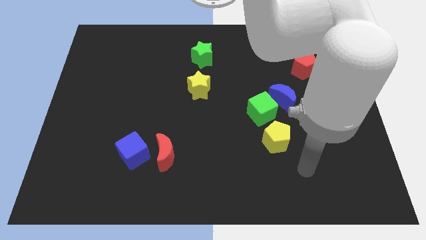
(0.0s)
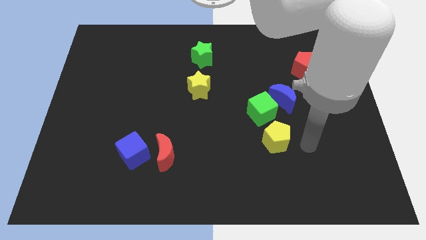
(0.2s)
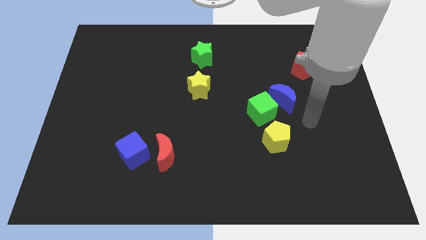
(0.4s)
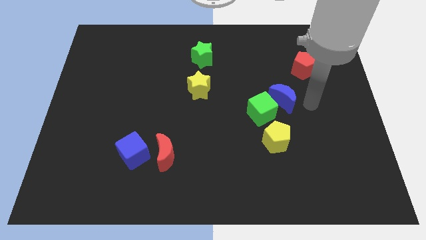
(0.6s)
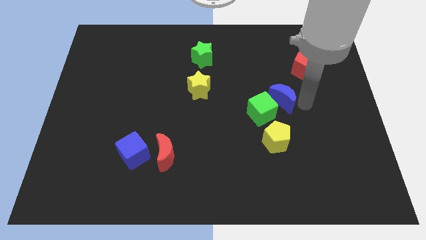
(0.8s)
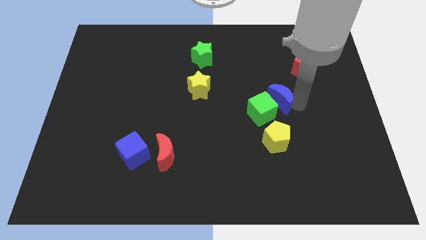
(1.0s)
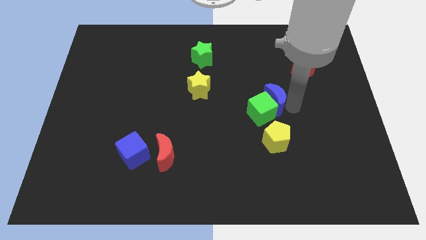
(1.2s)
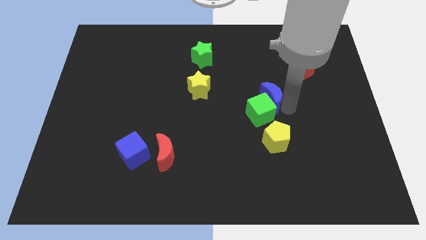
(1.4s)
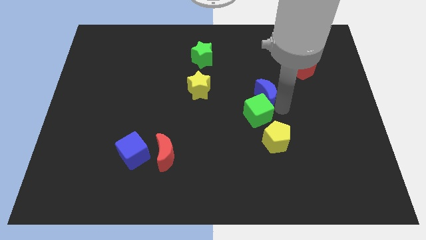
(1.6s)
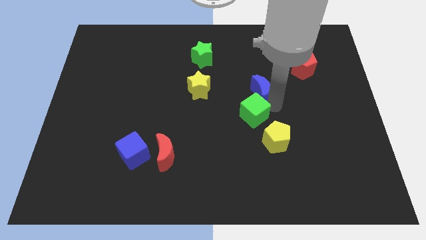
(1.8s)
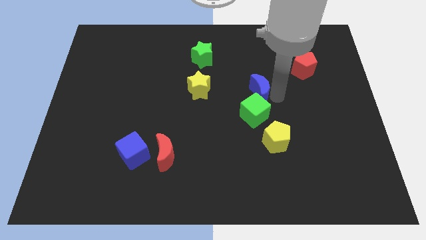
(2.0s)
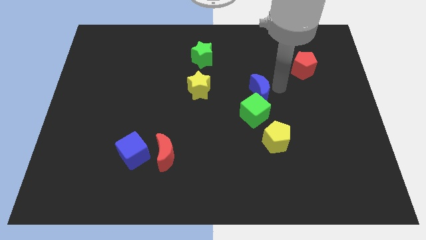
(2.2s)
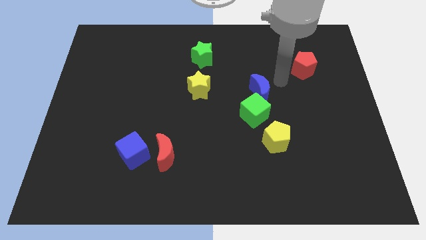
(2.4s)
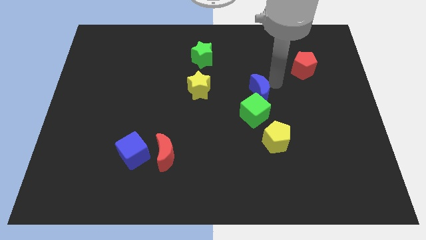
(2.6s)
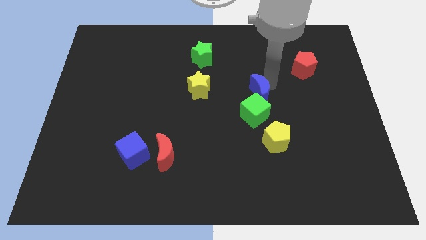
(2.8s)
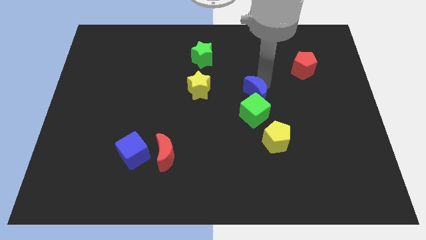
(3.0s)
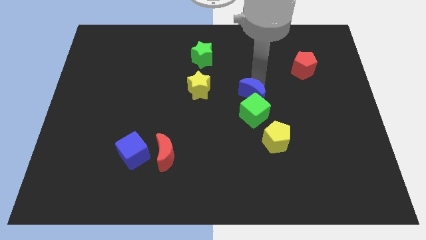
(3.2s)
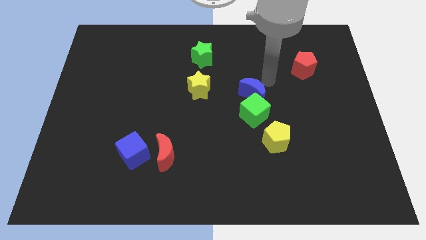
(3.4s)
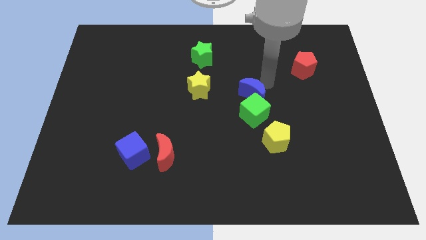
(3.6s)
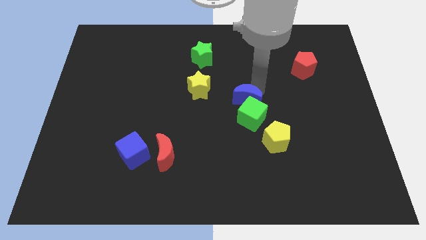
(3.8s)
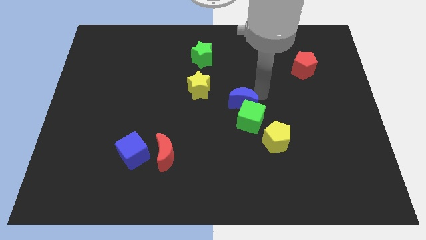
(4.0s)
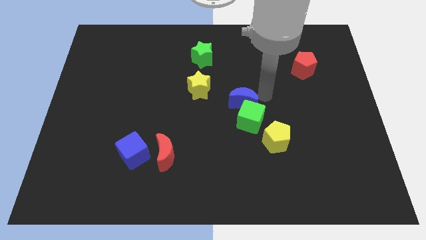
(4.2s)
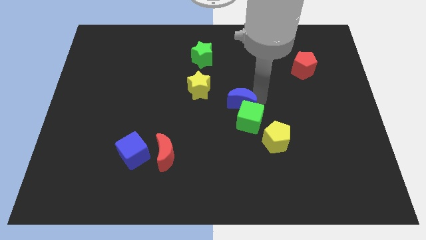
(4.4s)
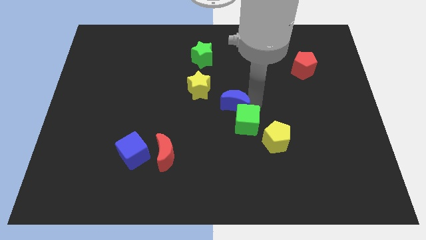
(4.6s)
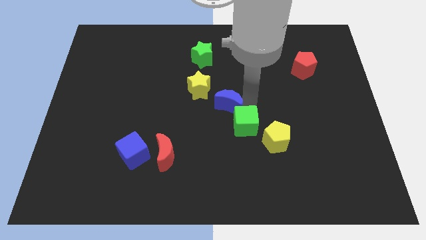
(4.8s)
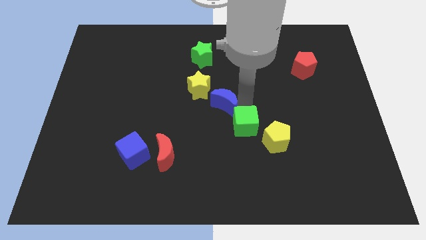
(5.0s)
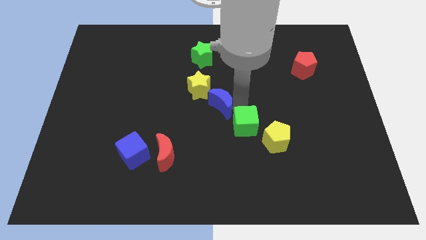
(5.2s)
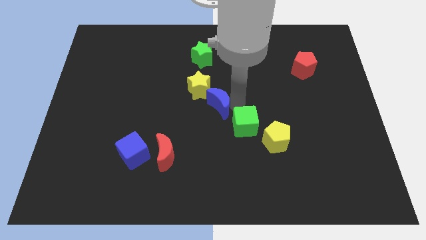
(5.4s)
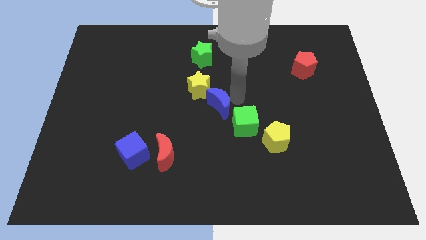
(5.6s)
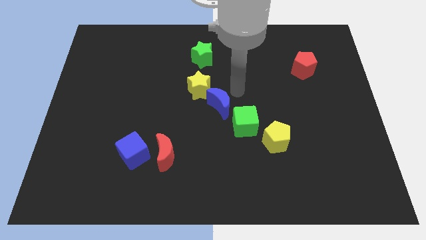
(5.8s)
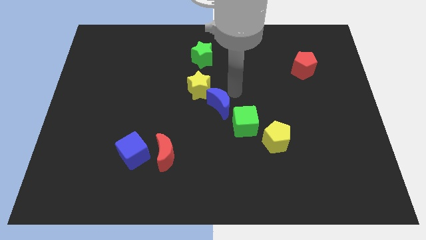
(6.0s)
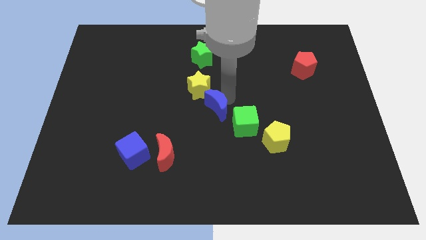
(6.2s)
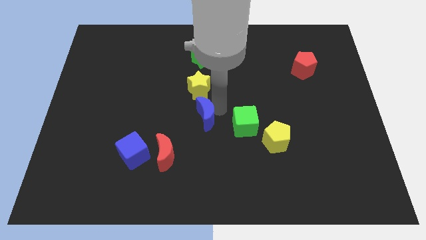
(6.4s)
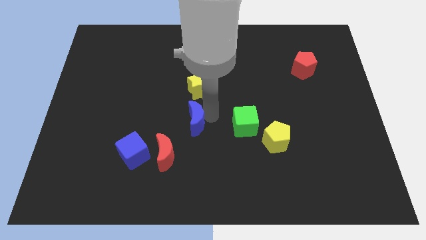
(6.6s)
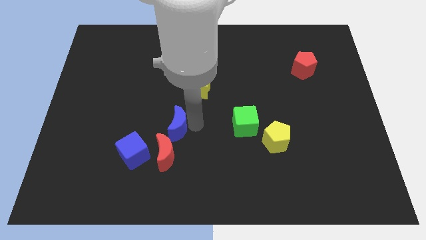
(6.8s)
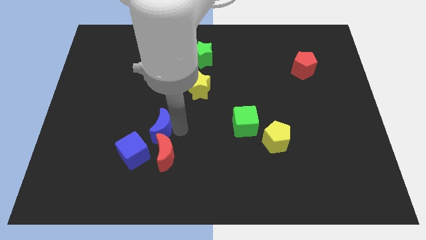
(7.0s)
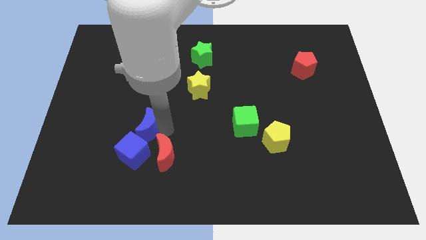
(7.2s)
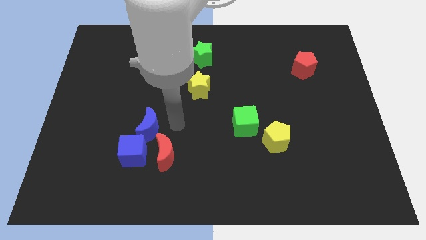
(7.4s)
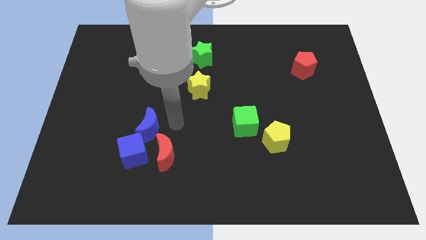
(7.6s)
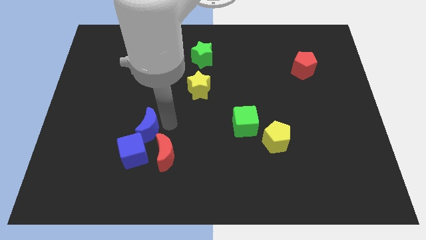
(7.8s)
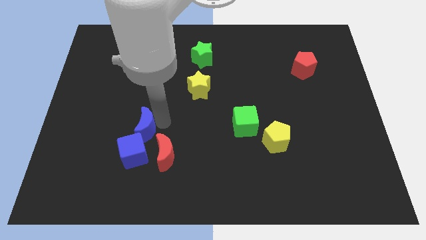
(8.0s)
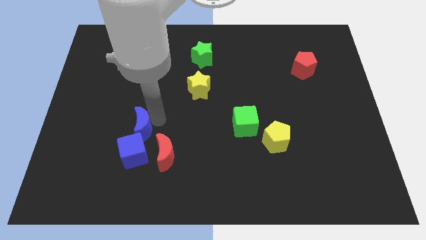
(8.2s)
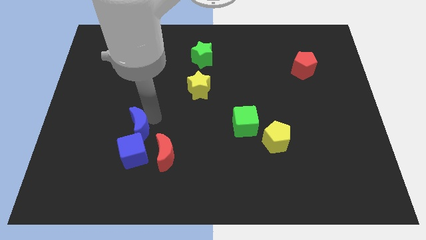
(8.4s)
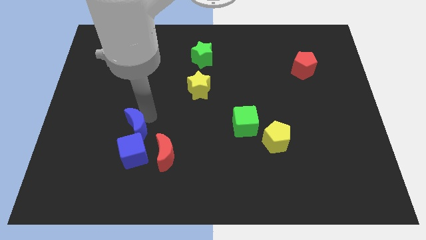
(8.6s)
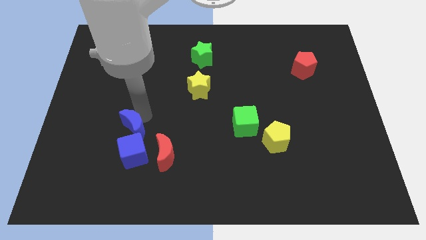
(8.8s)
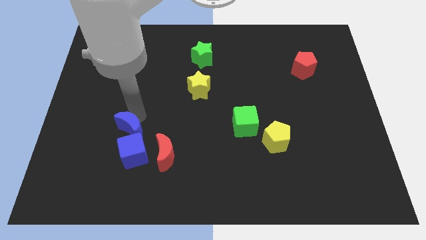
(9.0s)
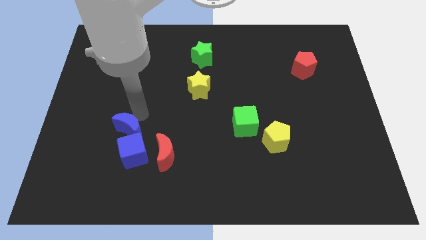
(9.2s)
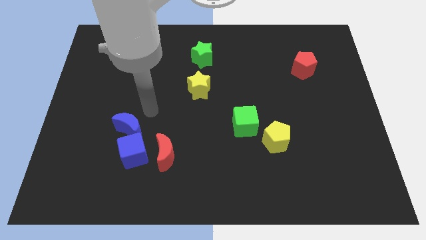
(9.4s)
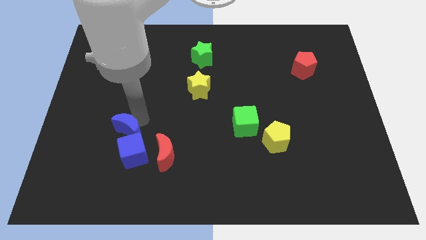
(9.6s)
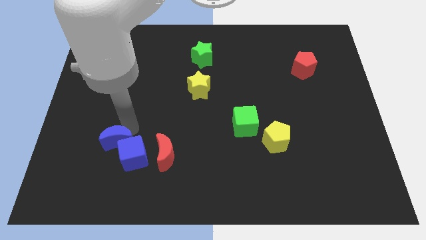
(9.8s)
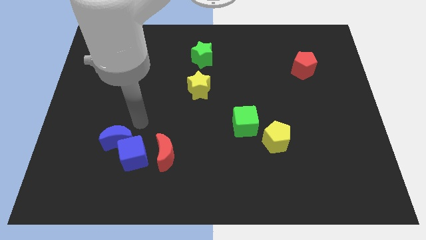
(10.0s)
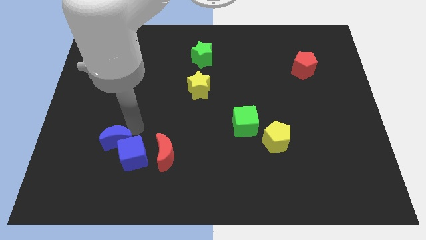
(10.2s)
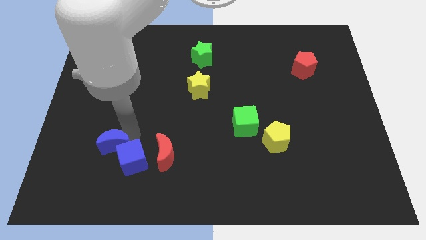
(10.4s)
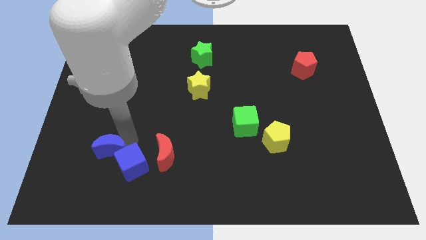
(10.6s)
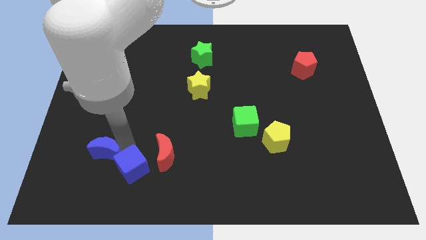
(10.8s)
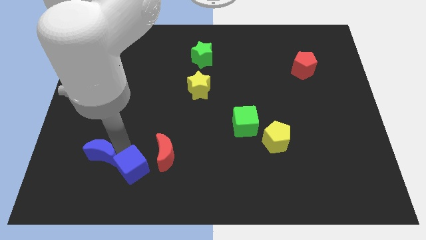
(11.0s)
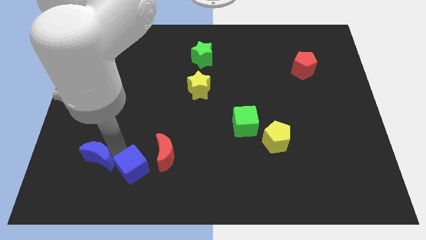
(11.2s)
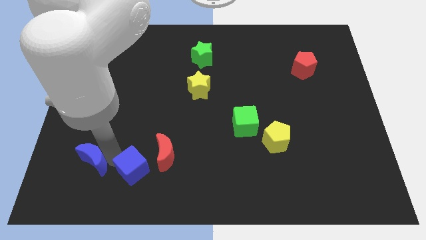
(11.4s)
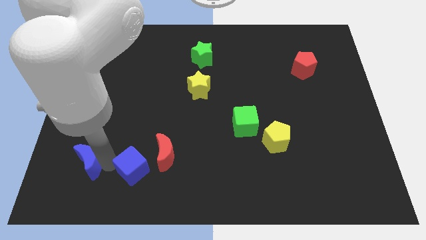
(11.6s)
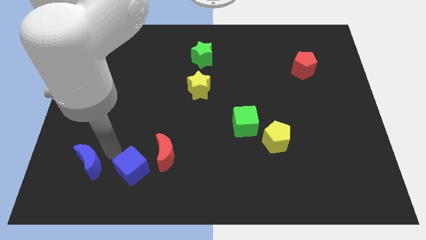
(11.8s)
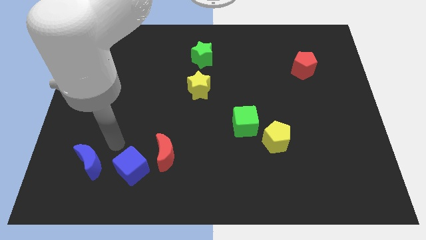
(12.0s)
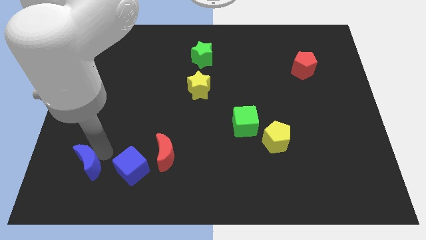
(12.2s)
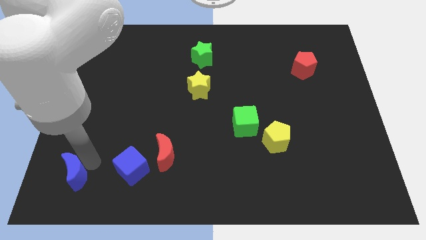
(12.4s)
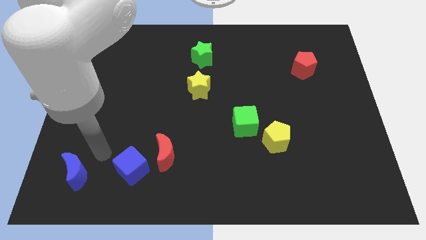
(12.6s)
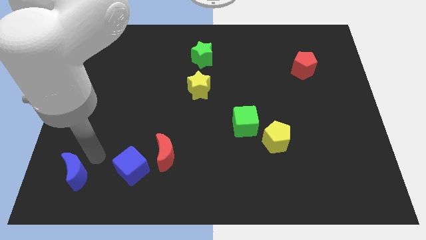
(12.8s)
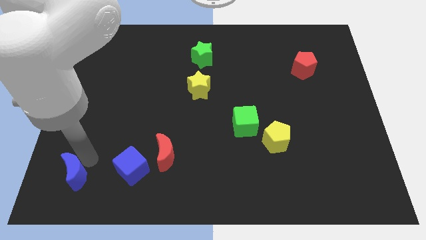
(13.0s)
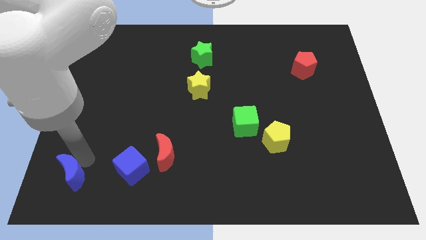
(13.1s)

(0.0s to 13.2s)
push the blue moon to the bottom left corner

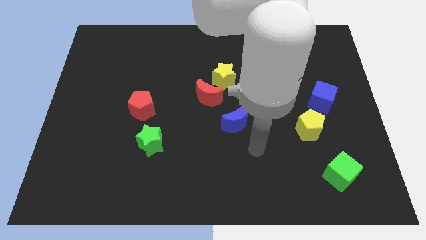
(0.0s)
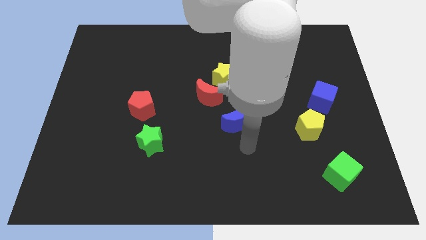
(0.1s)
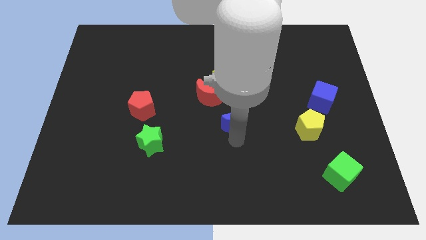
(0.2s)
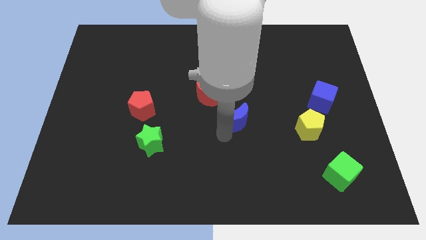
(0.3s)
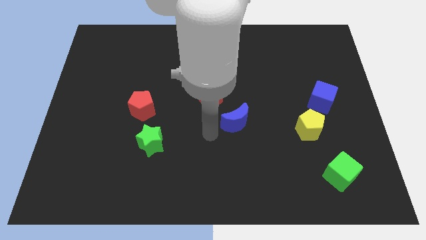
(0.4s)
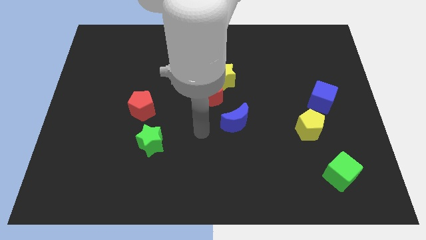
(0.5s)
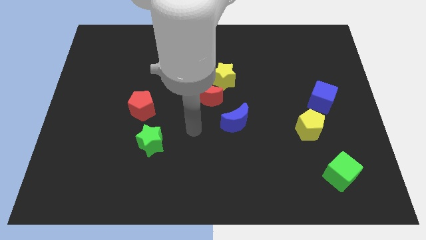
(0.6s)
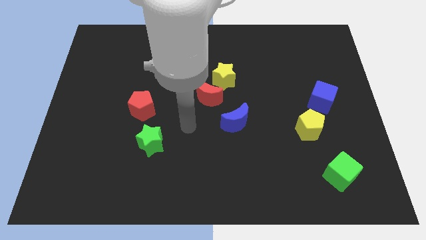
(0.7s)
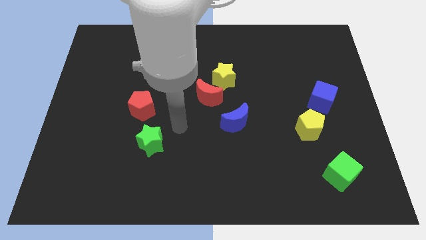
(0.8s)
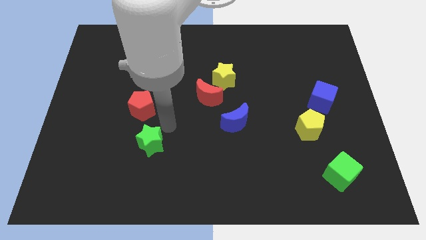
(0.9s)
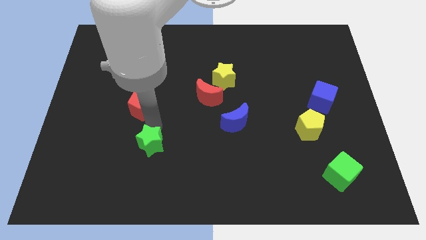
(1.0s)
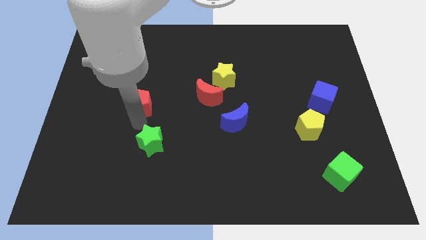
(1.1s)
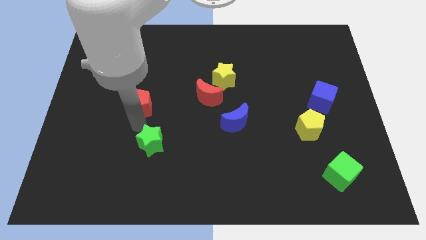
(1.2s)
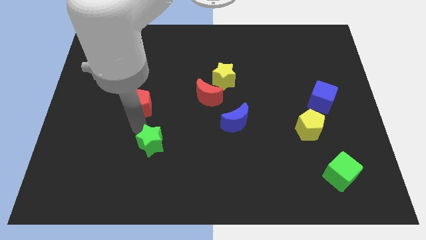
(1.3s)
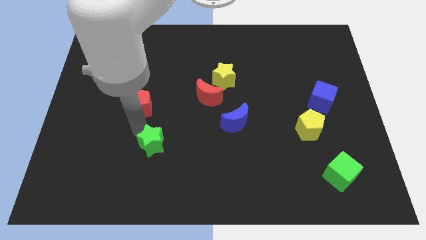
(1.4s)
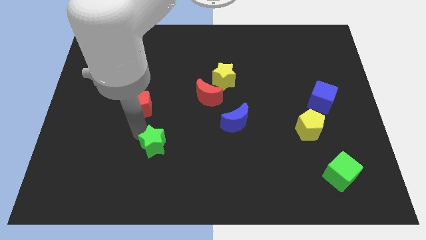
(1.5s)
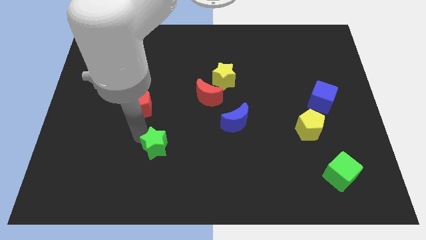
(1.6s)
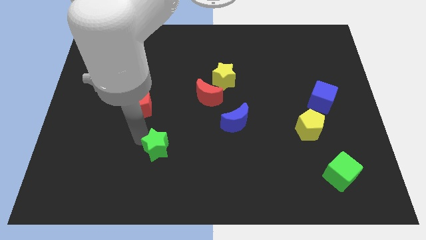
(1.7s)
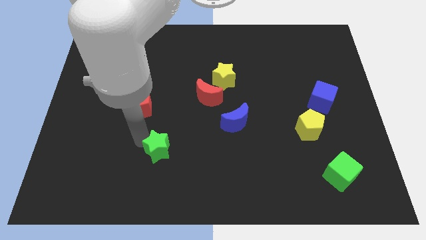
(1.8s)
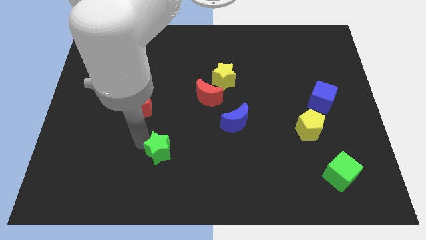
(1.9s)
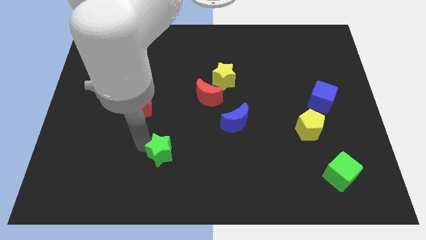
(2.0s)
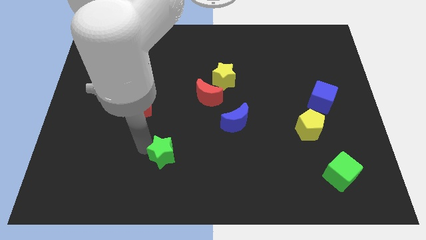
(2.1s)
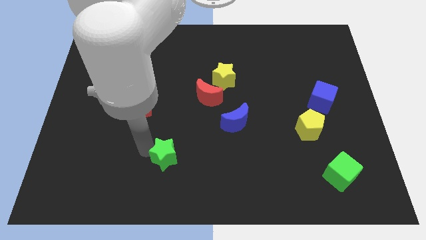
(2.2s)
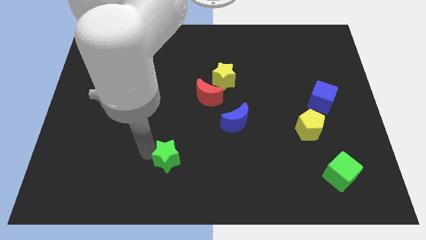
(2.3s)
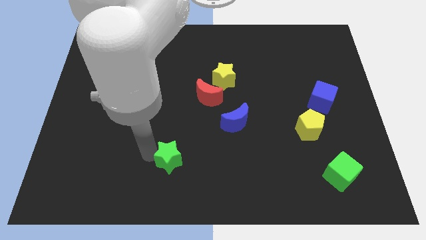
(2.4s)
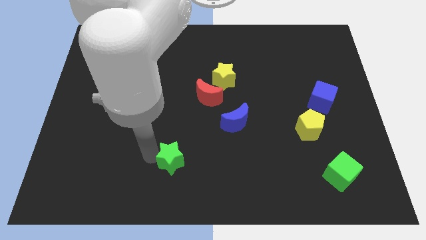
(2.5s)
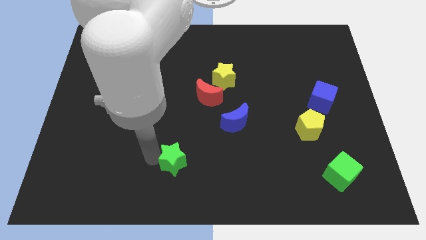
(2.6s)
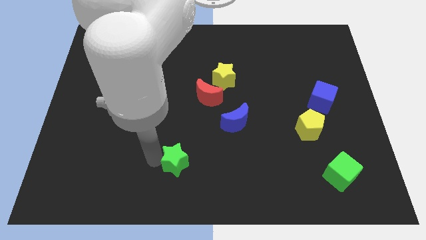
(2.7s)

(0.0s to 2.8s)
put the green star to the bottom side
